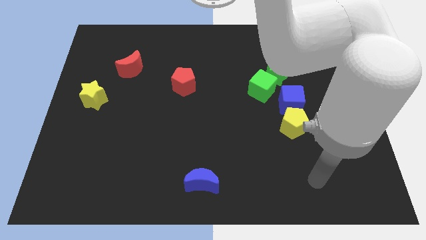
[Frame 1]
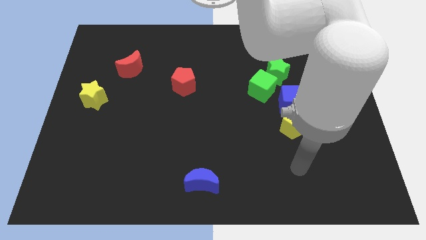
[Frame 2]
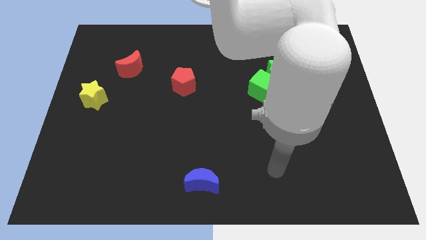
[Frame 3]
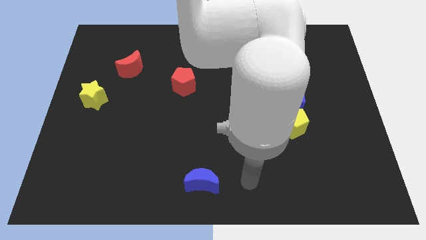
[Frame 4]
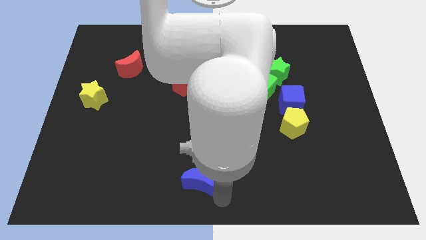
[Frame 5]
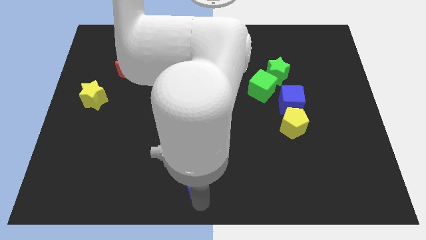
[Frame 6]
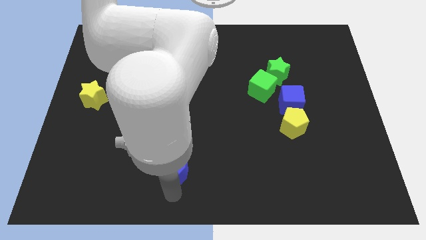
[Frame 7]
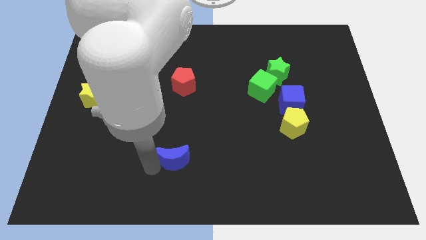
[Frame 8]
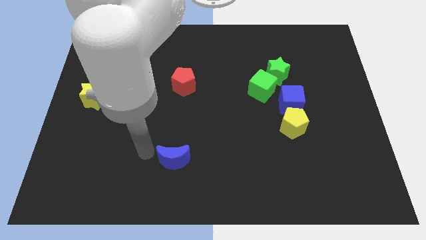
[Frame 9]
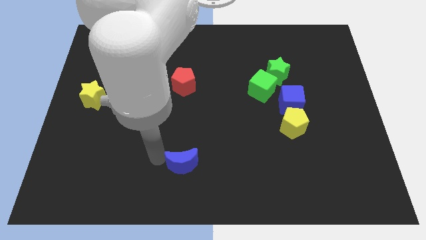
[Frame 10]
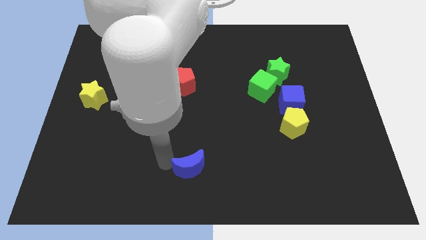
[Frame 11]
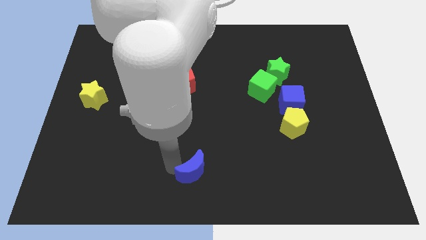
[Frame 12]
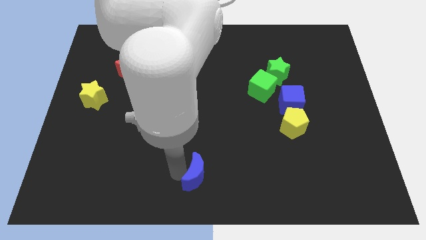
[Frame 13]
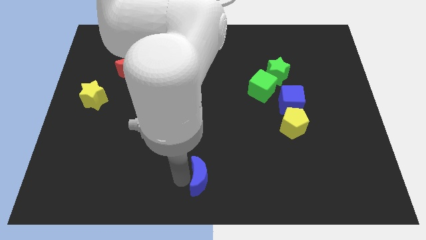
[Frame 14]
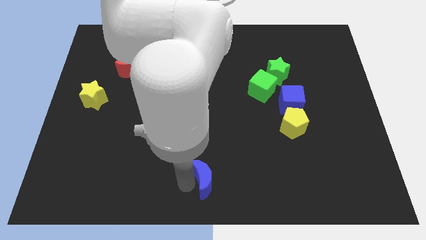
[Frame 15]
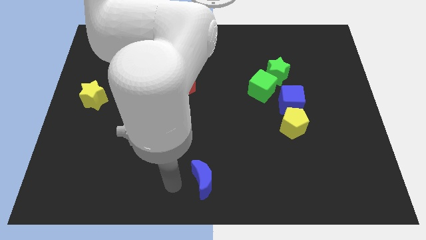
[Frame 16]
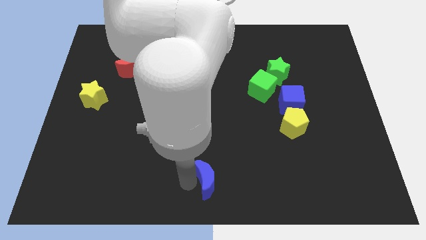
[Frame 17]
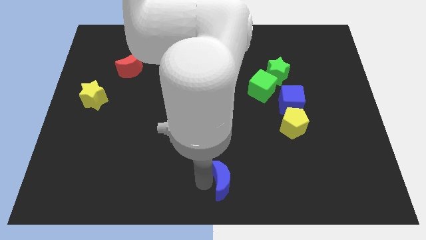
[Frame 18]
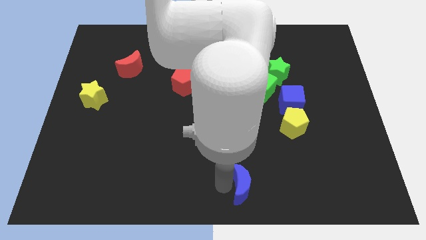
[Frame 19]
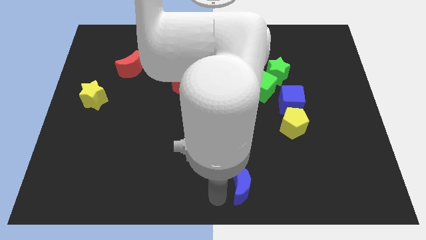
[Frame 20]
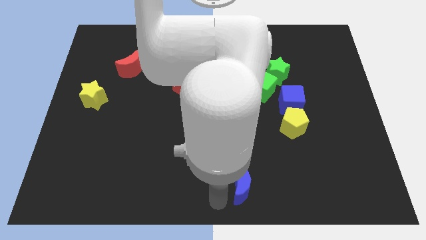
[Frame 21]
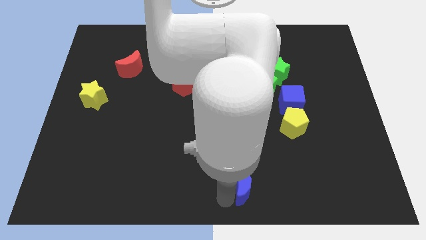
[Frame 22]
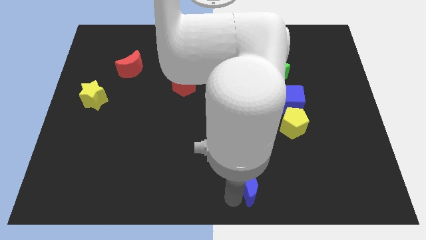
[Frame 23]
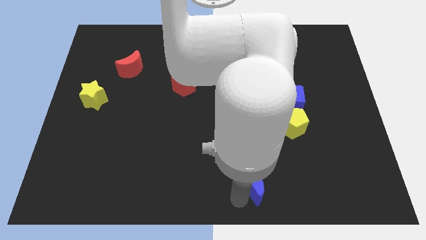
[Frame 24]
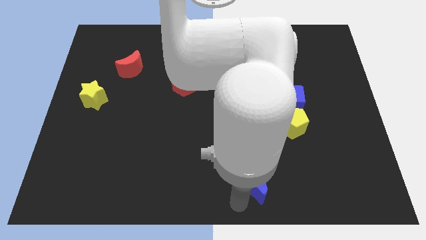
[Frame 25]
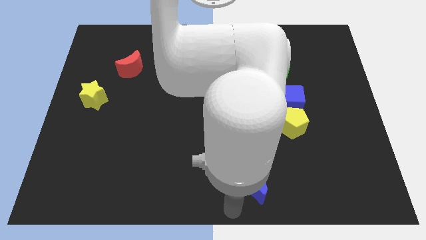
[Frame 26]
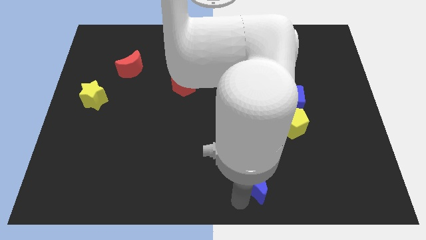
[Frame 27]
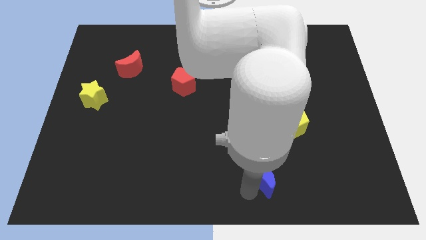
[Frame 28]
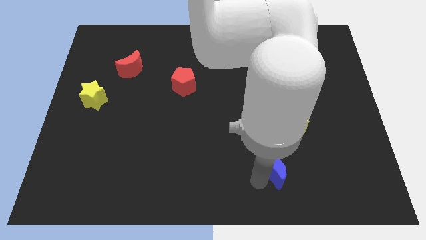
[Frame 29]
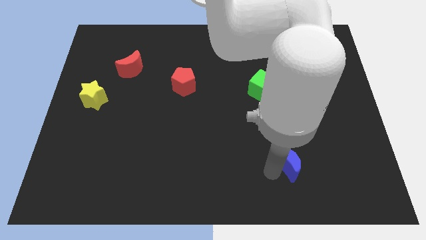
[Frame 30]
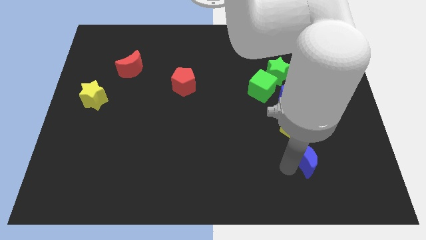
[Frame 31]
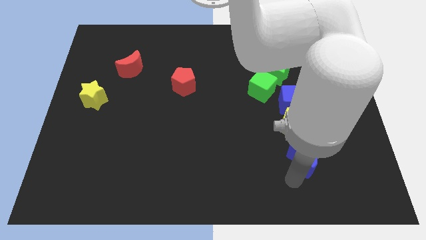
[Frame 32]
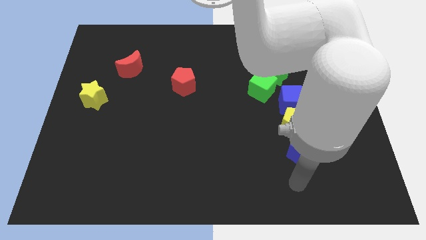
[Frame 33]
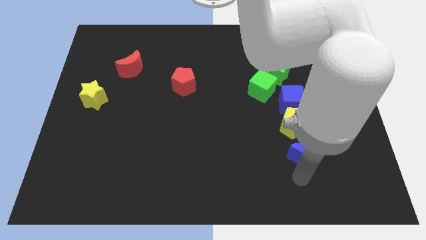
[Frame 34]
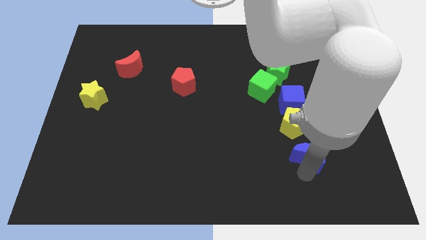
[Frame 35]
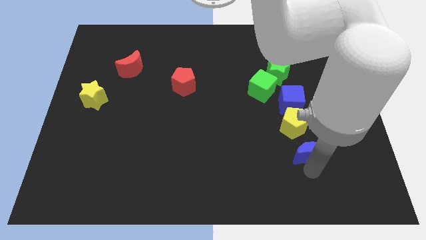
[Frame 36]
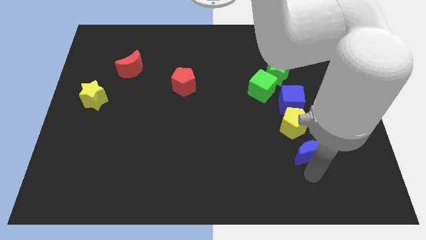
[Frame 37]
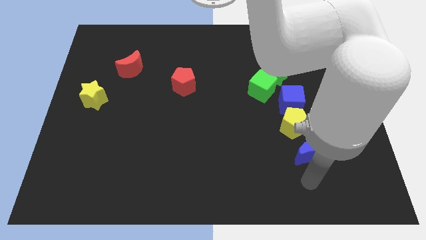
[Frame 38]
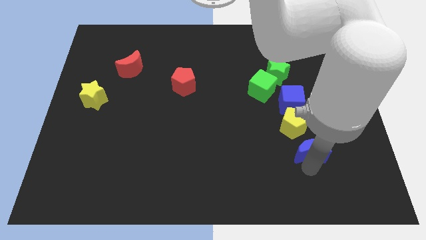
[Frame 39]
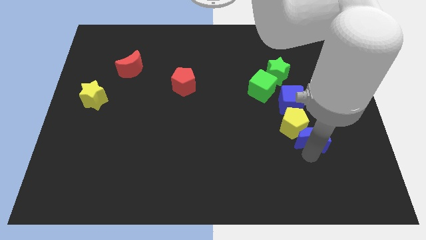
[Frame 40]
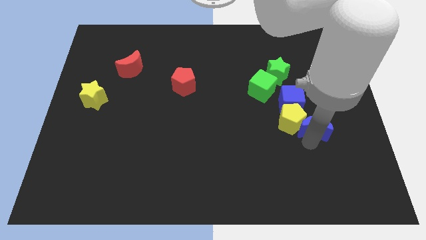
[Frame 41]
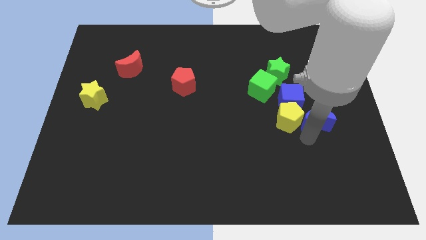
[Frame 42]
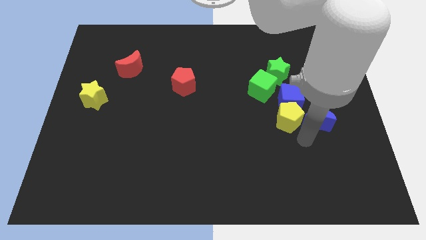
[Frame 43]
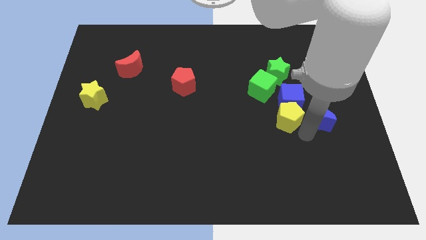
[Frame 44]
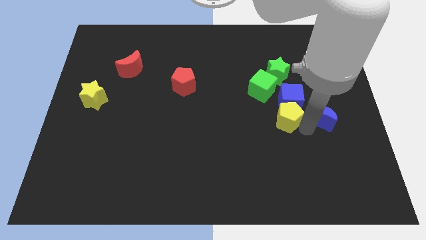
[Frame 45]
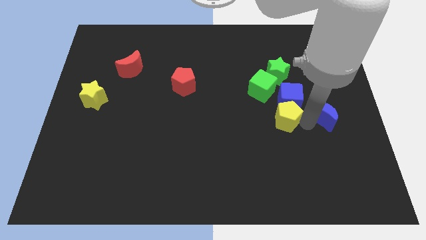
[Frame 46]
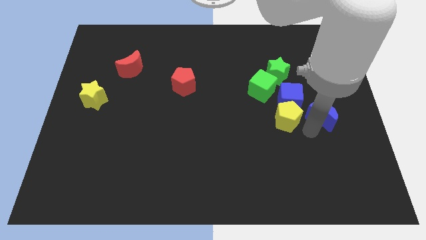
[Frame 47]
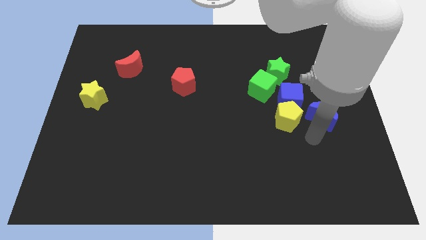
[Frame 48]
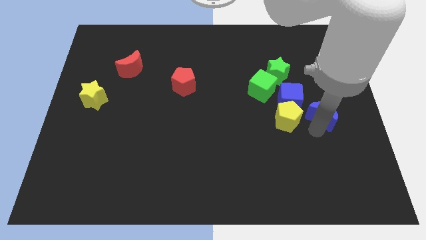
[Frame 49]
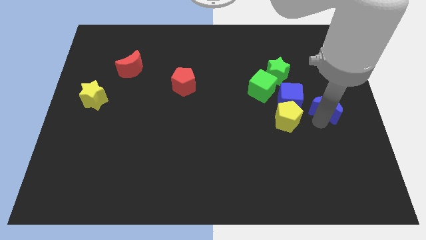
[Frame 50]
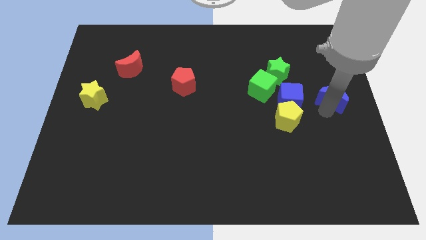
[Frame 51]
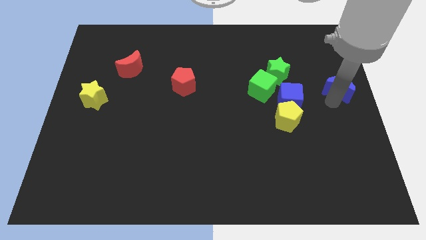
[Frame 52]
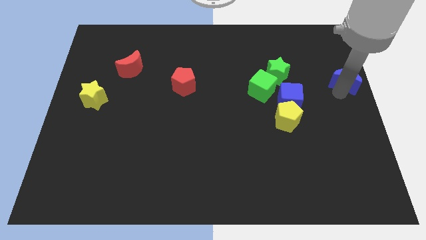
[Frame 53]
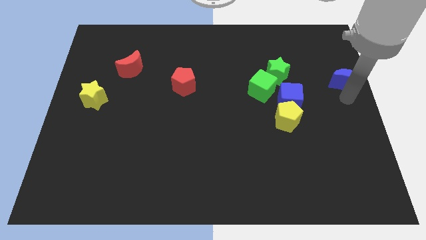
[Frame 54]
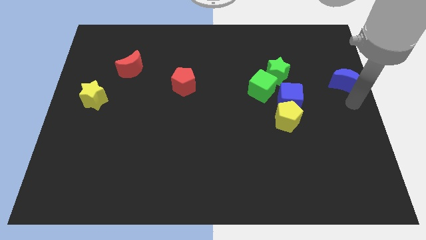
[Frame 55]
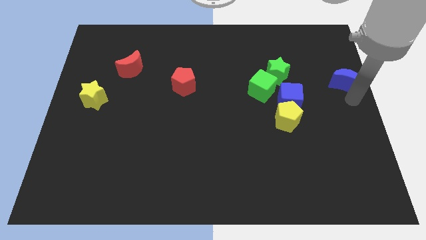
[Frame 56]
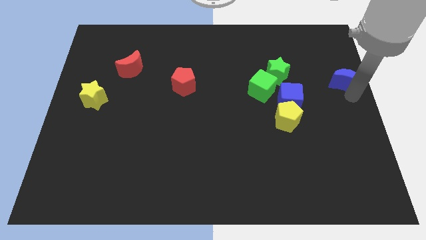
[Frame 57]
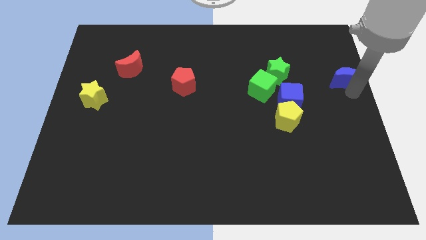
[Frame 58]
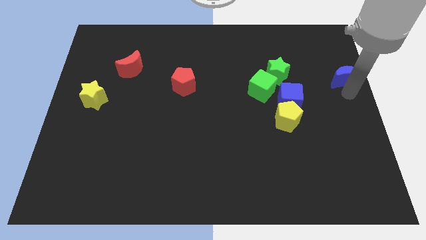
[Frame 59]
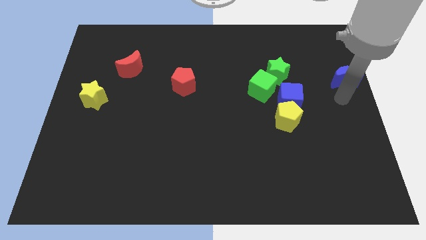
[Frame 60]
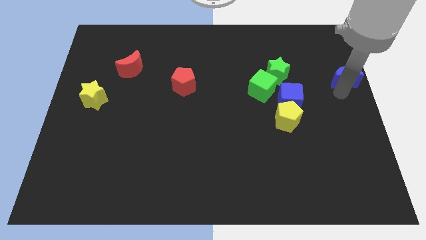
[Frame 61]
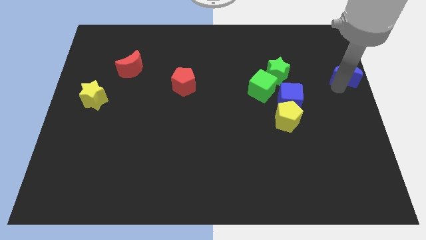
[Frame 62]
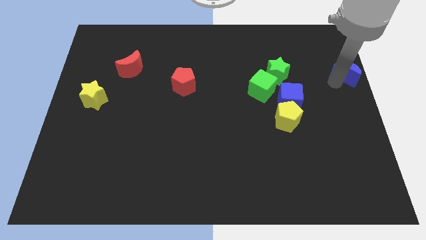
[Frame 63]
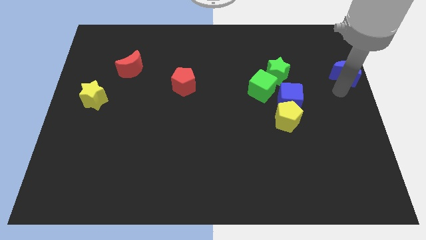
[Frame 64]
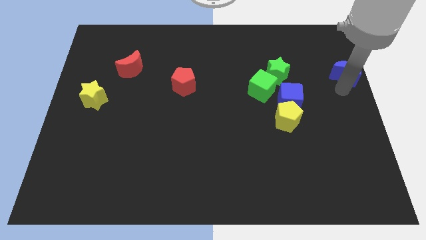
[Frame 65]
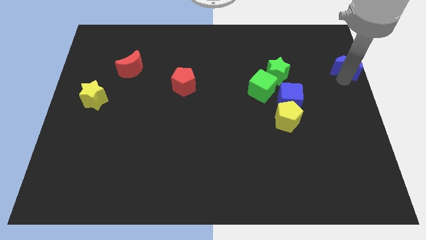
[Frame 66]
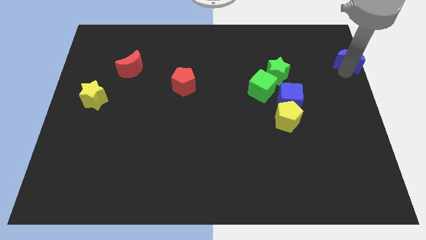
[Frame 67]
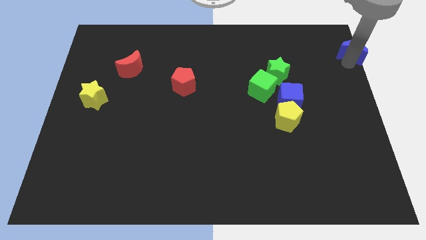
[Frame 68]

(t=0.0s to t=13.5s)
slide the blue moon to the top right of the board
